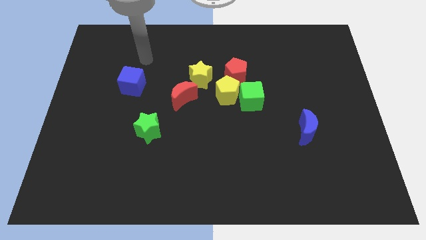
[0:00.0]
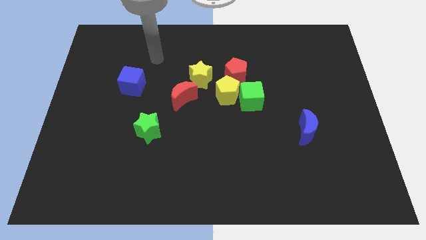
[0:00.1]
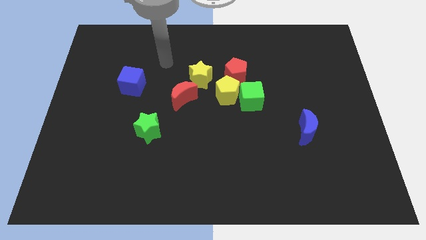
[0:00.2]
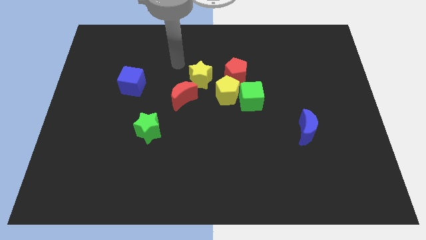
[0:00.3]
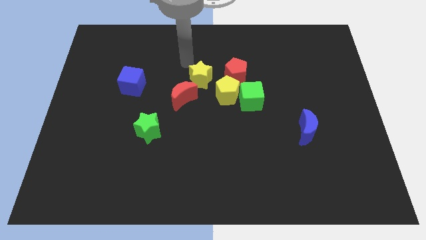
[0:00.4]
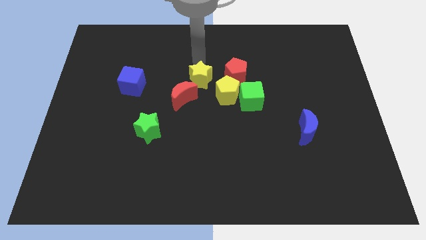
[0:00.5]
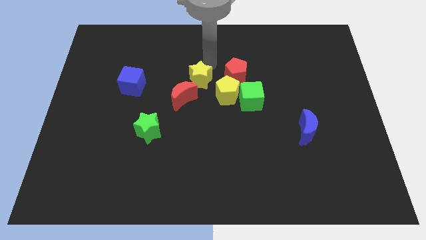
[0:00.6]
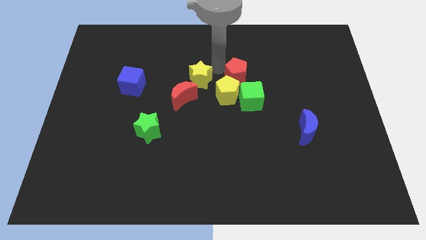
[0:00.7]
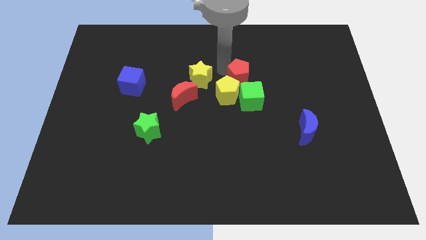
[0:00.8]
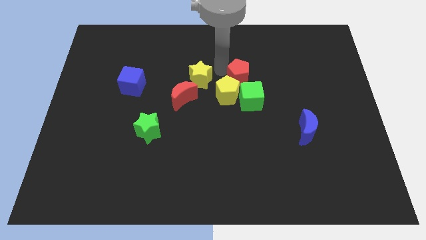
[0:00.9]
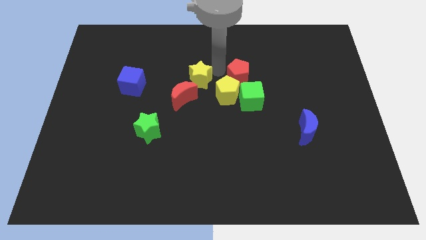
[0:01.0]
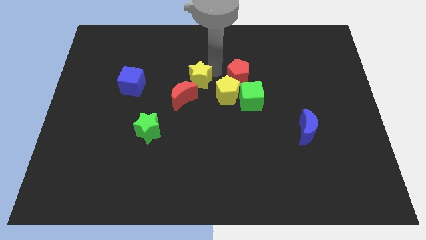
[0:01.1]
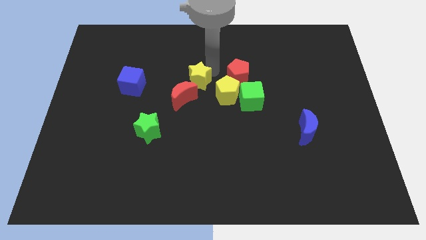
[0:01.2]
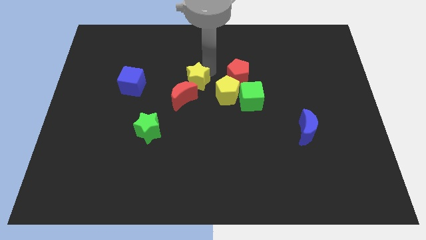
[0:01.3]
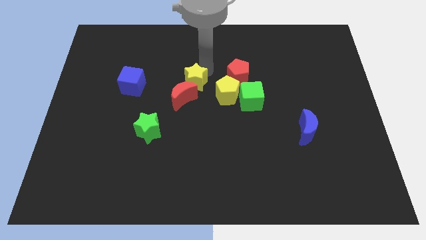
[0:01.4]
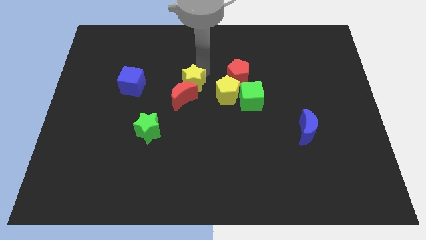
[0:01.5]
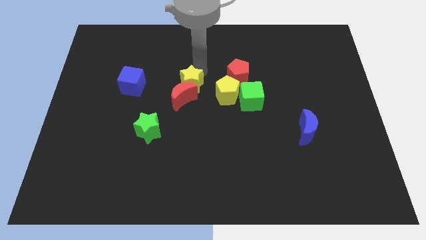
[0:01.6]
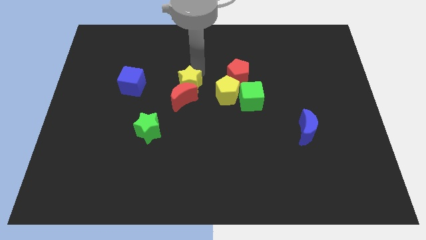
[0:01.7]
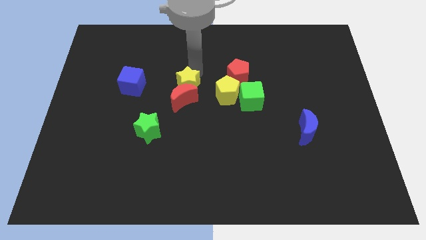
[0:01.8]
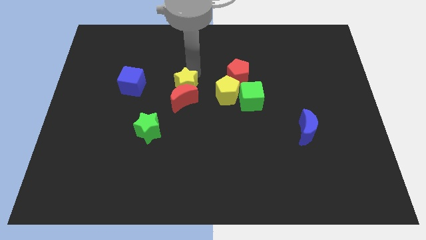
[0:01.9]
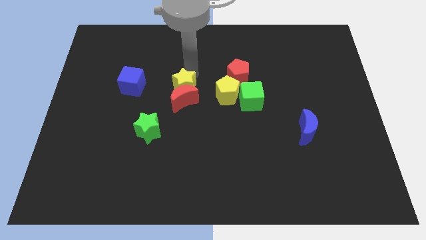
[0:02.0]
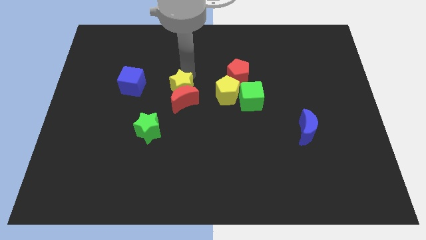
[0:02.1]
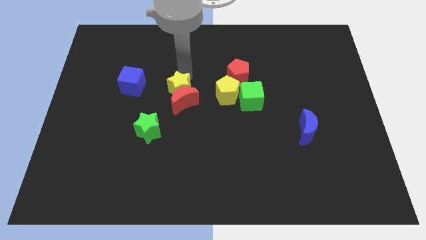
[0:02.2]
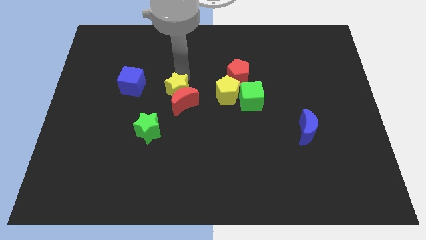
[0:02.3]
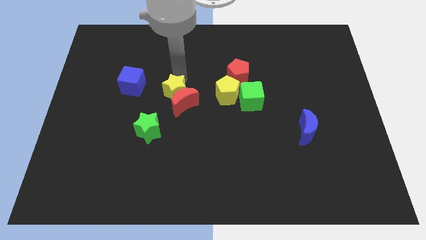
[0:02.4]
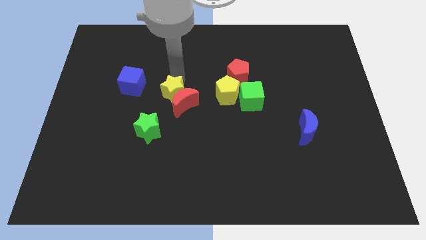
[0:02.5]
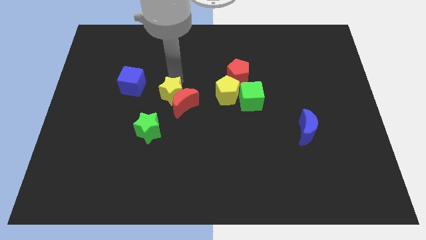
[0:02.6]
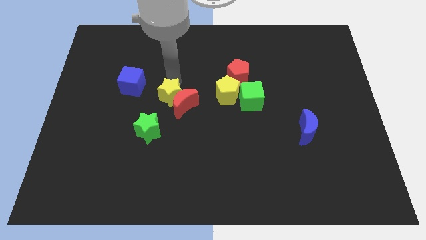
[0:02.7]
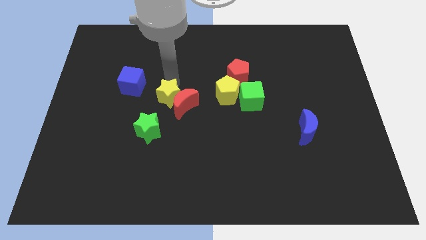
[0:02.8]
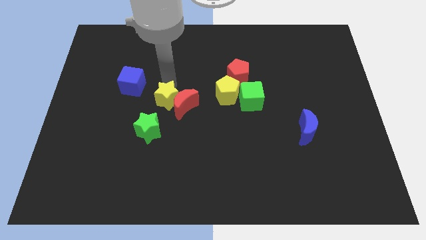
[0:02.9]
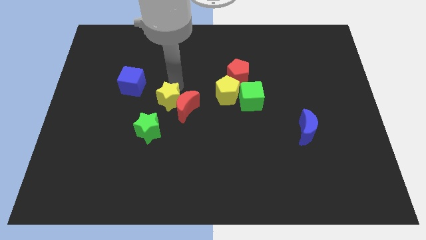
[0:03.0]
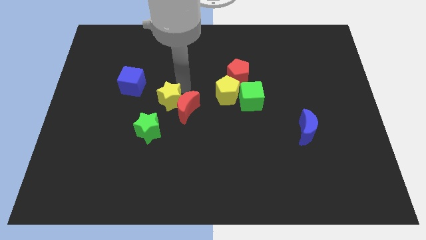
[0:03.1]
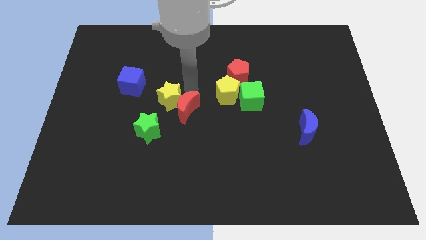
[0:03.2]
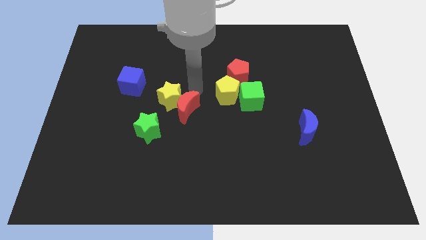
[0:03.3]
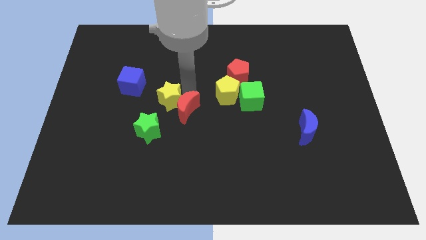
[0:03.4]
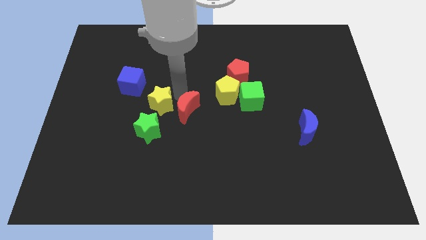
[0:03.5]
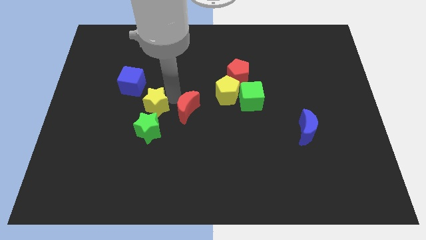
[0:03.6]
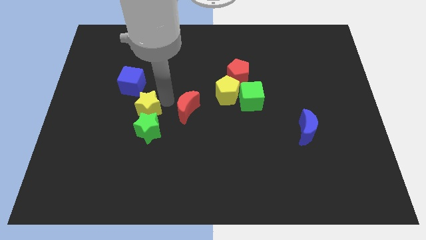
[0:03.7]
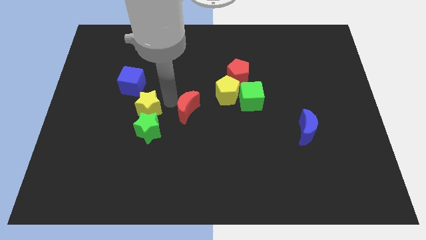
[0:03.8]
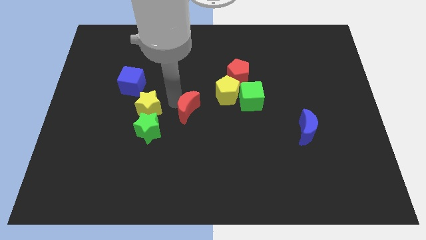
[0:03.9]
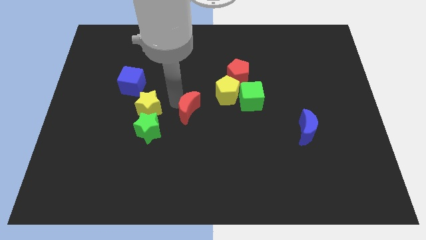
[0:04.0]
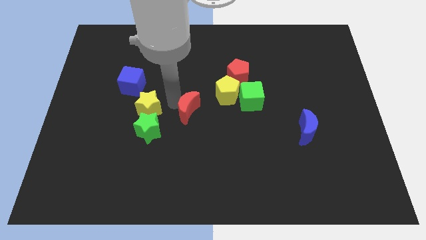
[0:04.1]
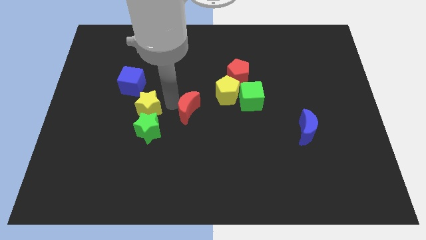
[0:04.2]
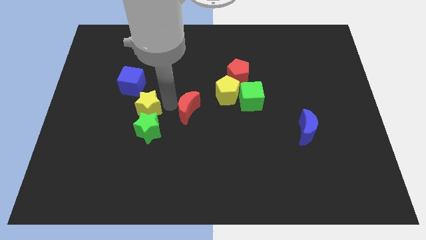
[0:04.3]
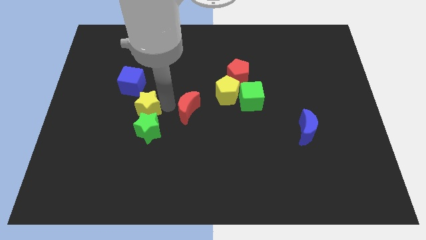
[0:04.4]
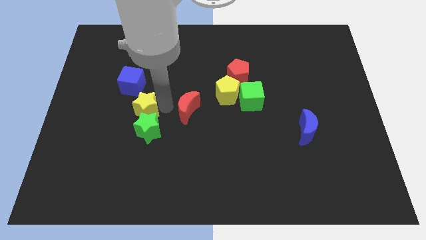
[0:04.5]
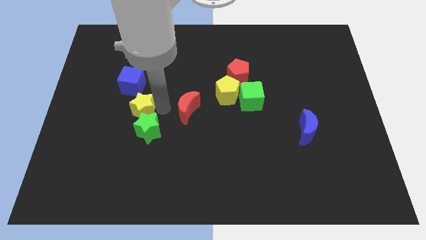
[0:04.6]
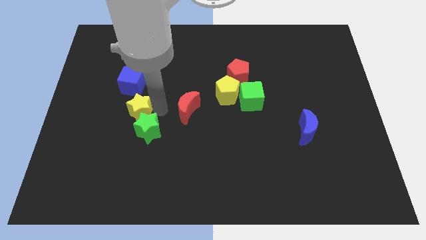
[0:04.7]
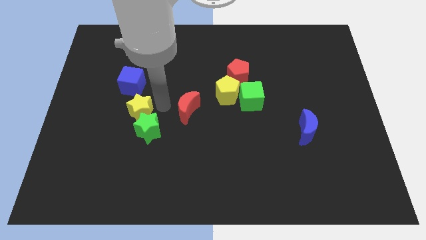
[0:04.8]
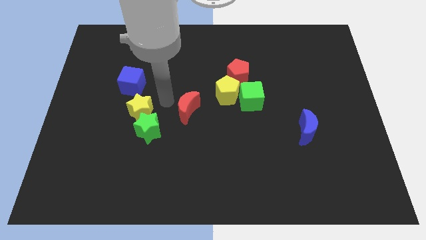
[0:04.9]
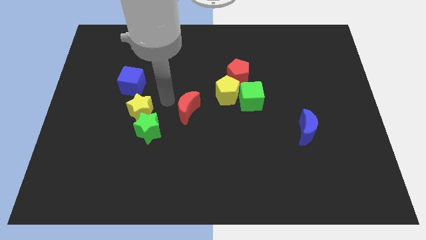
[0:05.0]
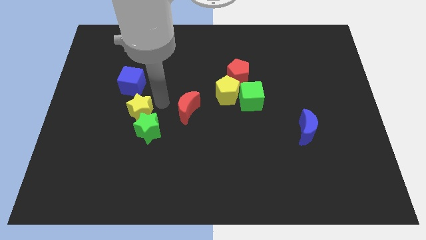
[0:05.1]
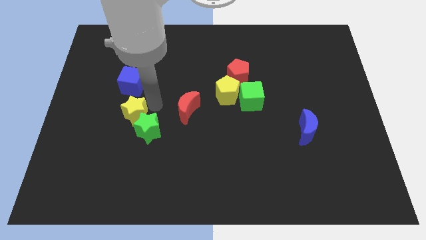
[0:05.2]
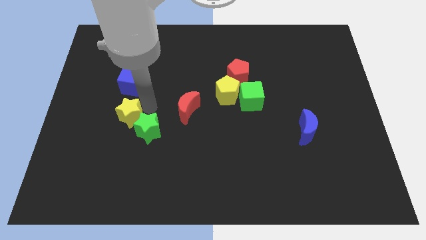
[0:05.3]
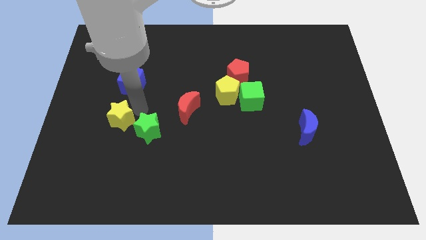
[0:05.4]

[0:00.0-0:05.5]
slide the yellow star down and to the left diagonally

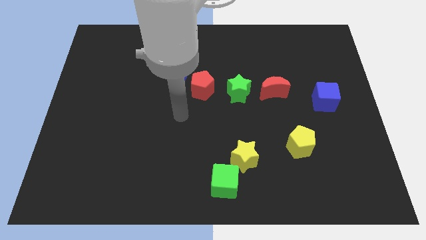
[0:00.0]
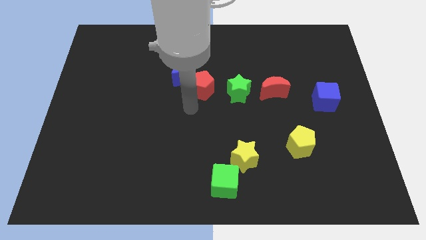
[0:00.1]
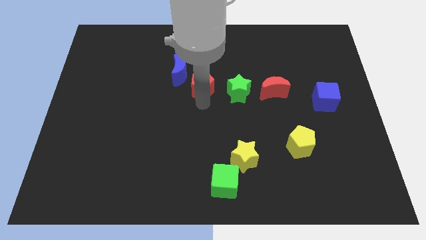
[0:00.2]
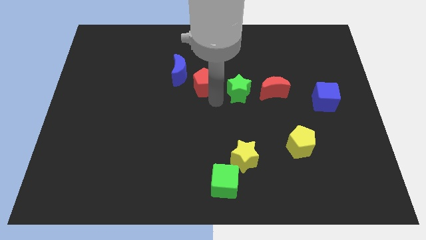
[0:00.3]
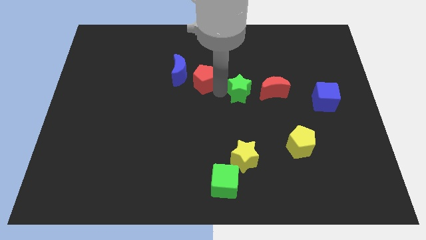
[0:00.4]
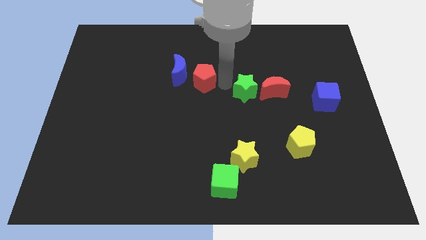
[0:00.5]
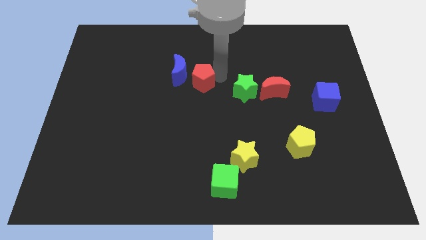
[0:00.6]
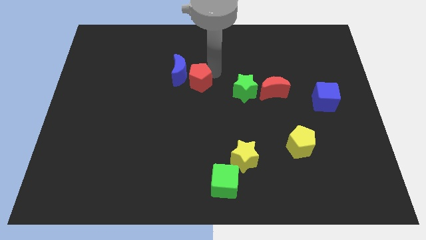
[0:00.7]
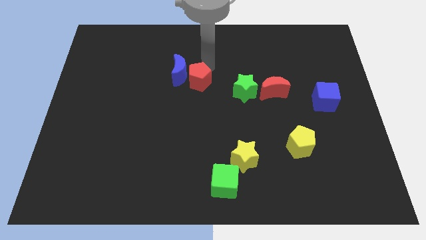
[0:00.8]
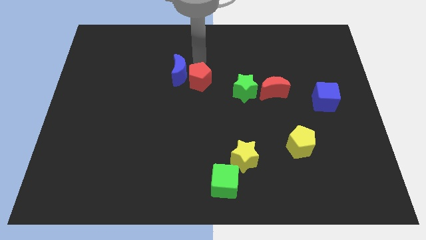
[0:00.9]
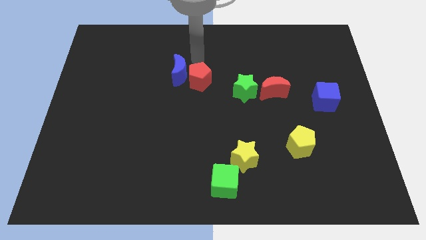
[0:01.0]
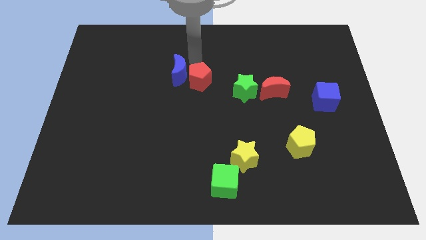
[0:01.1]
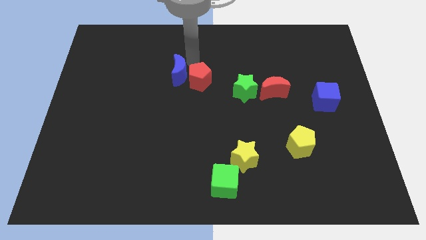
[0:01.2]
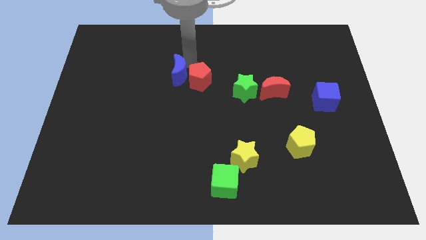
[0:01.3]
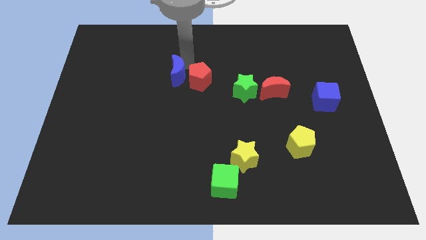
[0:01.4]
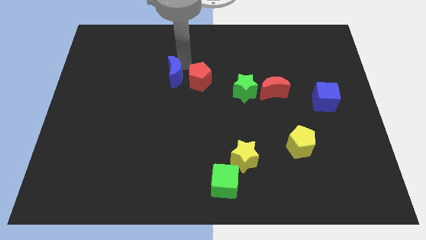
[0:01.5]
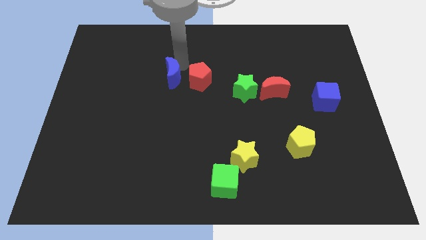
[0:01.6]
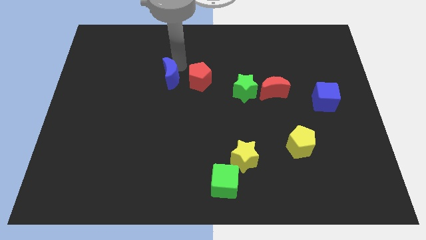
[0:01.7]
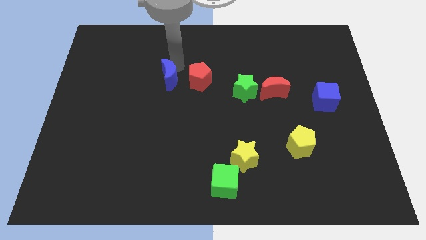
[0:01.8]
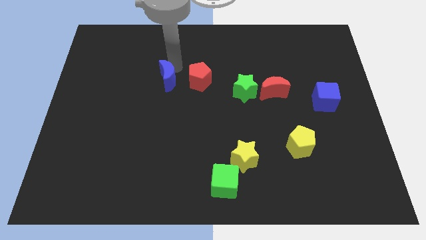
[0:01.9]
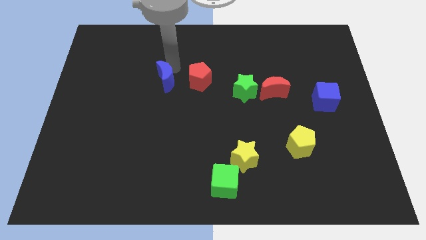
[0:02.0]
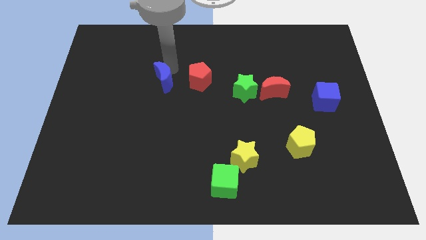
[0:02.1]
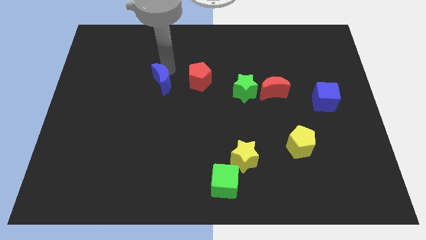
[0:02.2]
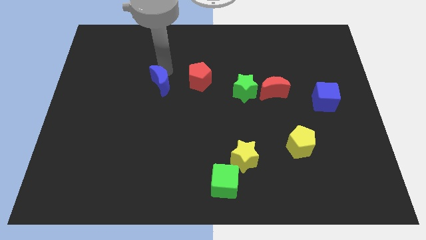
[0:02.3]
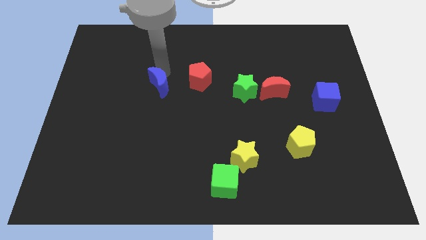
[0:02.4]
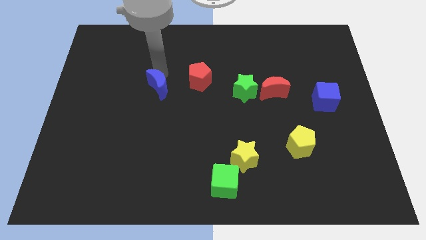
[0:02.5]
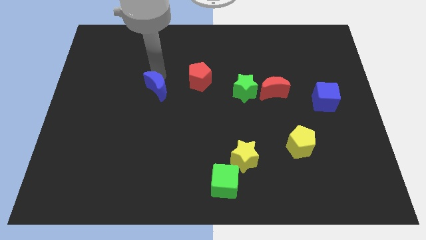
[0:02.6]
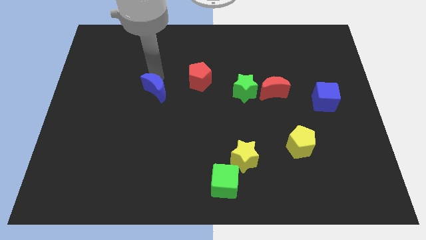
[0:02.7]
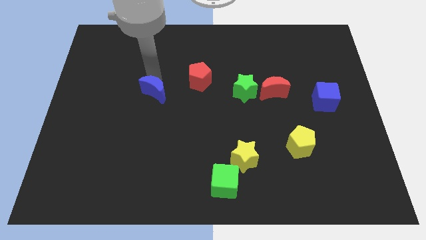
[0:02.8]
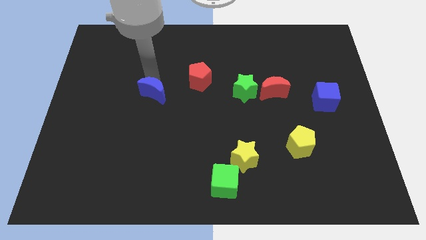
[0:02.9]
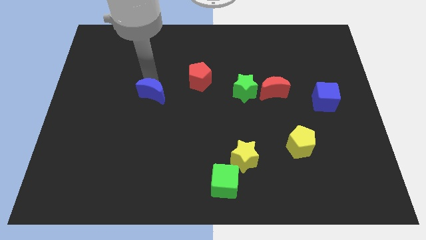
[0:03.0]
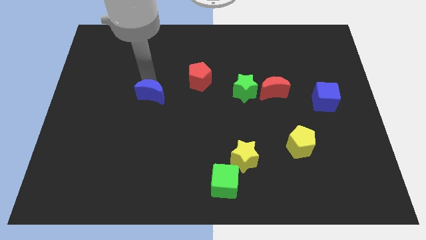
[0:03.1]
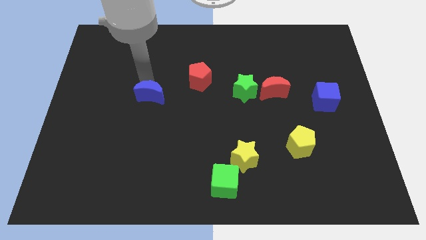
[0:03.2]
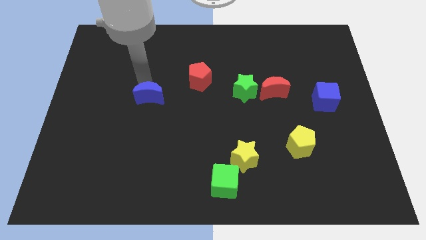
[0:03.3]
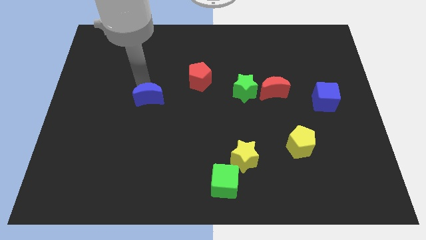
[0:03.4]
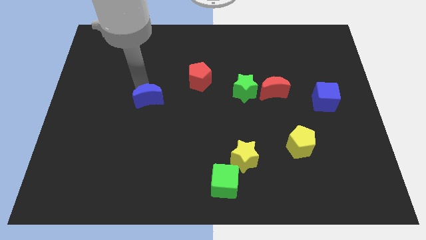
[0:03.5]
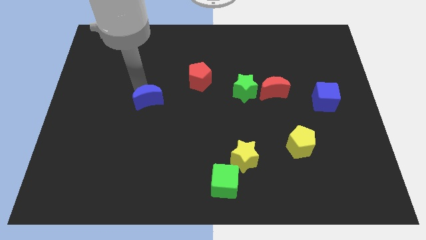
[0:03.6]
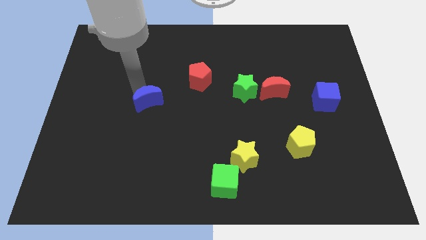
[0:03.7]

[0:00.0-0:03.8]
move the blue moon somewhat down
